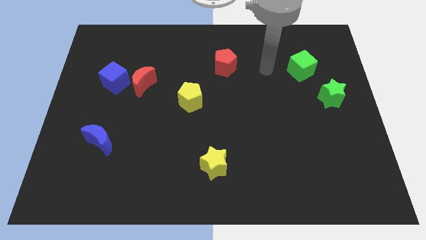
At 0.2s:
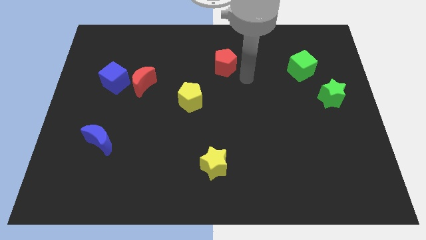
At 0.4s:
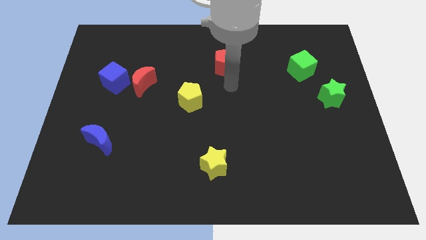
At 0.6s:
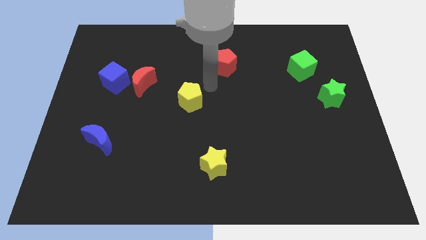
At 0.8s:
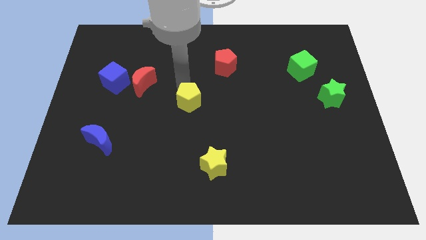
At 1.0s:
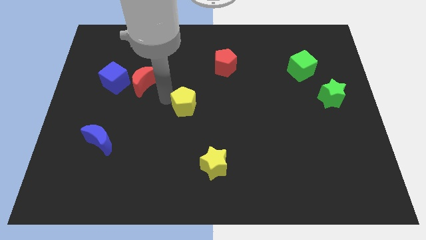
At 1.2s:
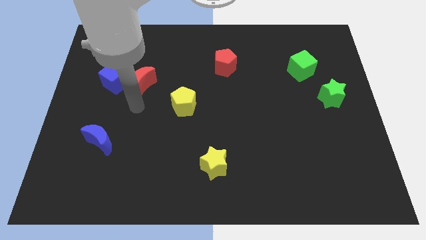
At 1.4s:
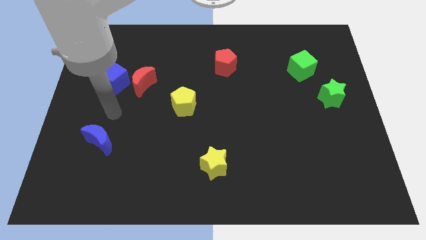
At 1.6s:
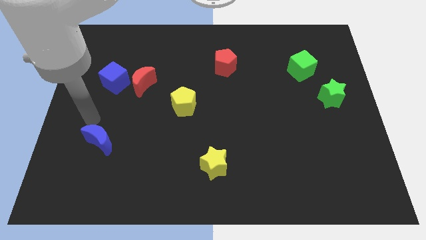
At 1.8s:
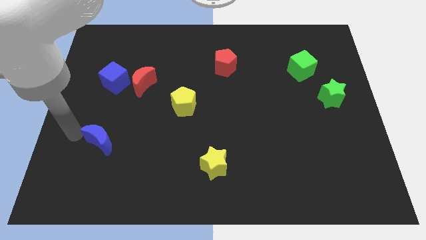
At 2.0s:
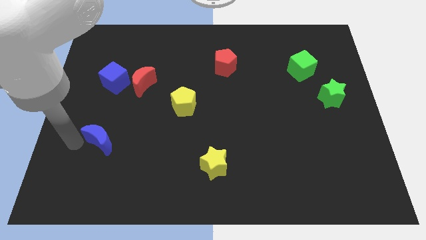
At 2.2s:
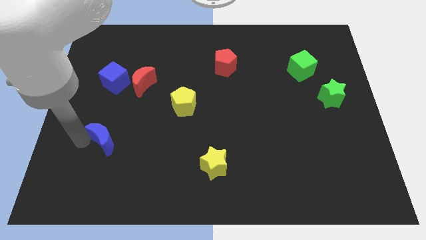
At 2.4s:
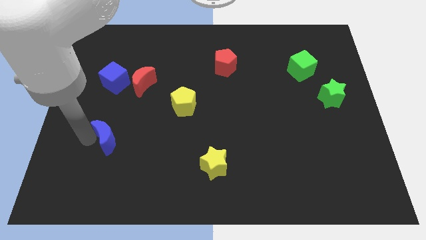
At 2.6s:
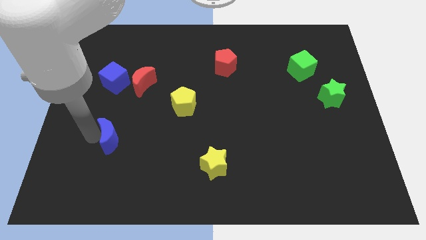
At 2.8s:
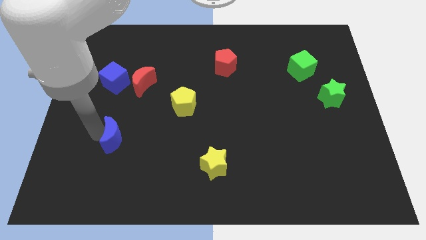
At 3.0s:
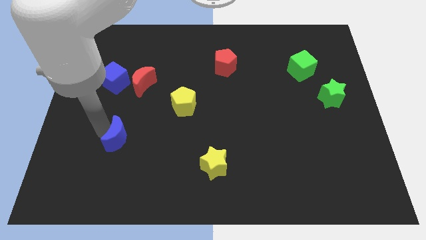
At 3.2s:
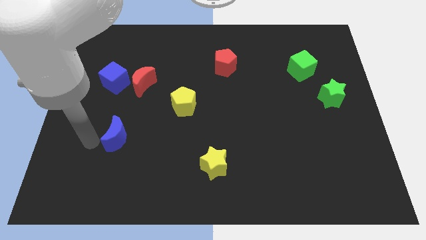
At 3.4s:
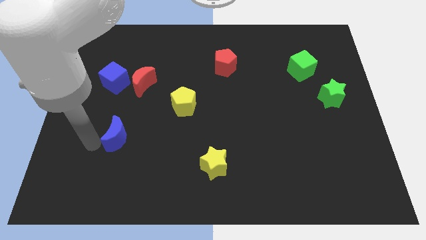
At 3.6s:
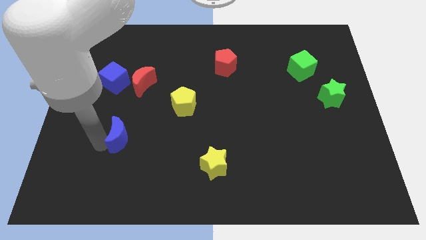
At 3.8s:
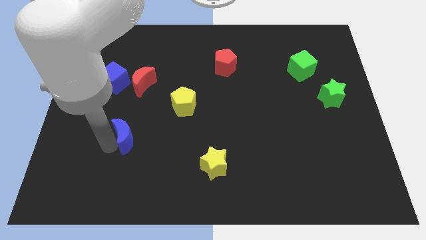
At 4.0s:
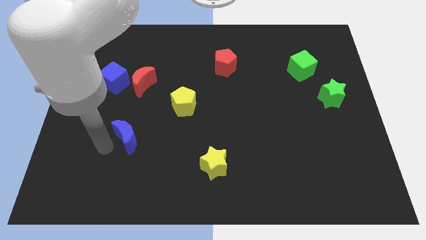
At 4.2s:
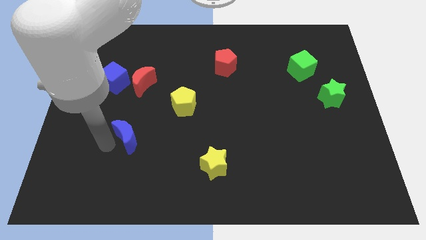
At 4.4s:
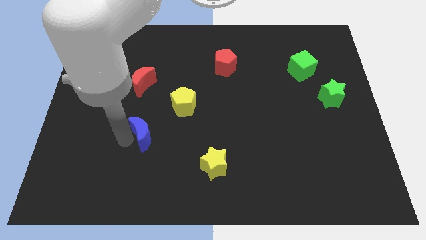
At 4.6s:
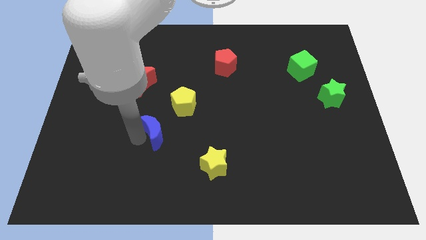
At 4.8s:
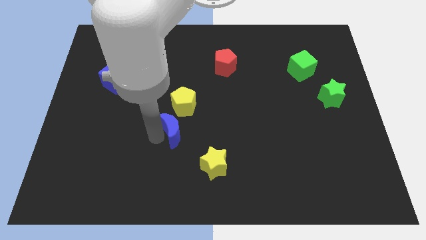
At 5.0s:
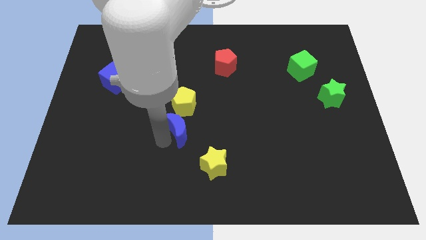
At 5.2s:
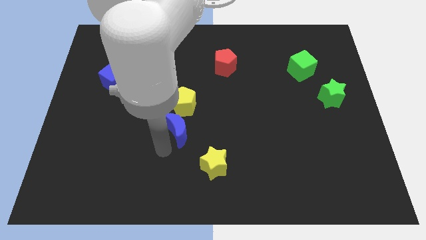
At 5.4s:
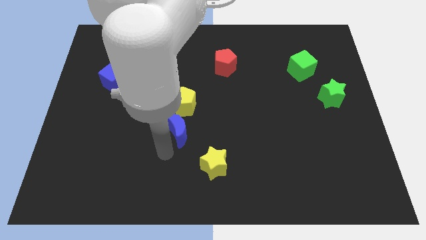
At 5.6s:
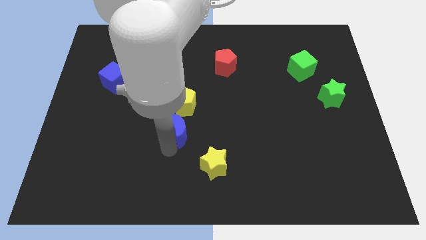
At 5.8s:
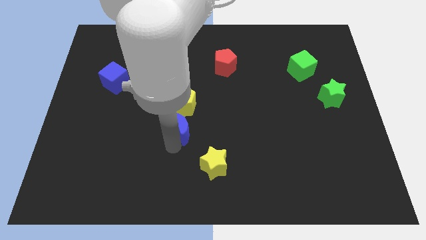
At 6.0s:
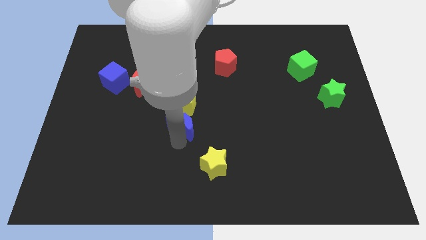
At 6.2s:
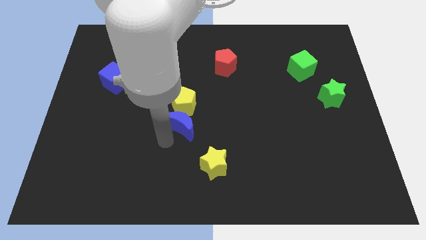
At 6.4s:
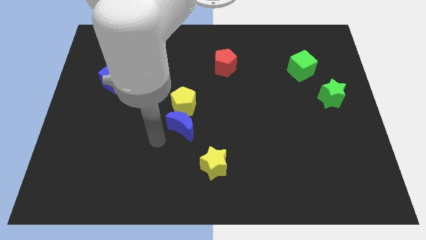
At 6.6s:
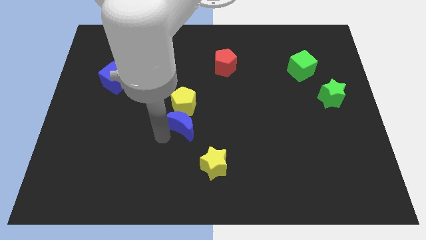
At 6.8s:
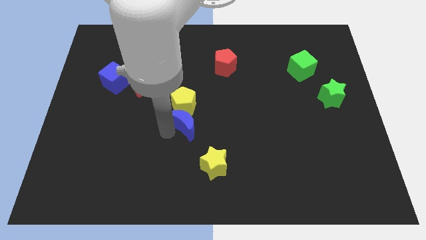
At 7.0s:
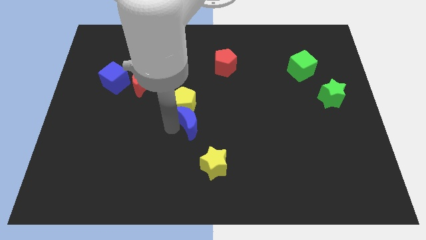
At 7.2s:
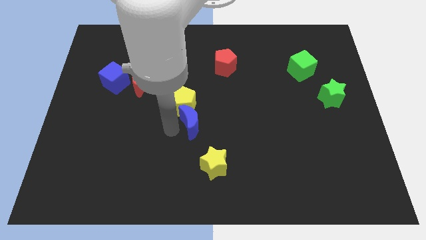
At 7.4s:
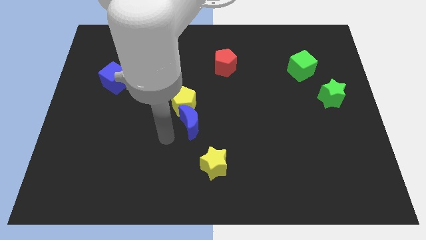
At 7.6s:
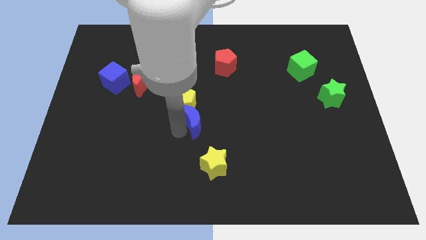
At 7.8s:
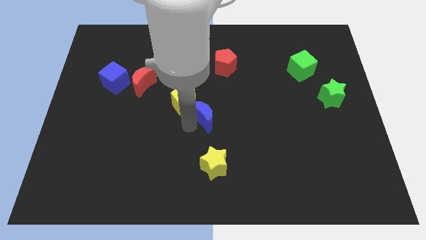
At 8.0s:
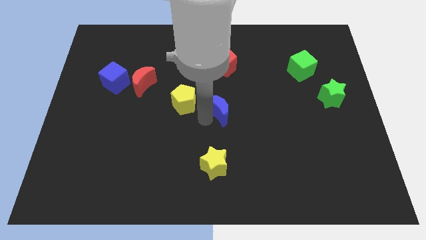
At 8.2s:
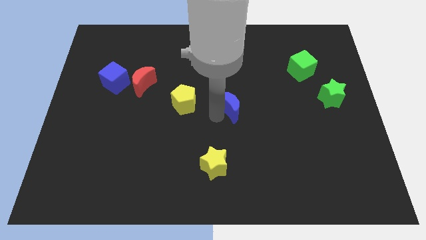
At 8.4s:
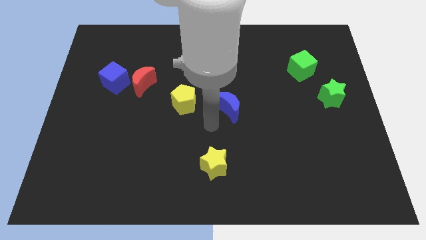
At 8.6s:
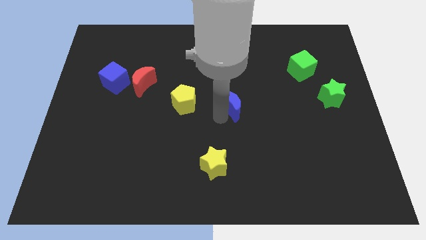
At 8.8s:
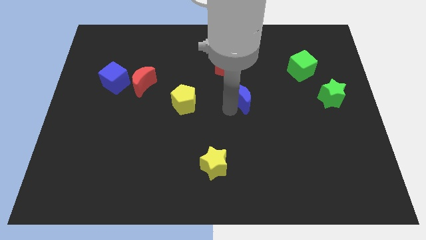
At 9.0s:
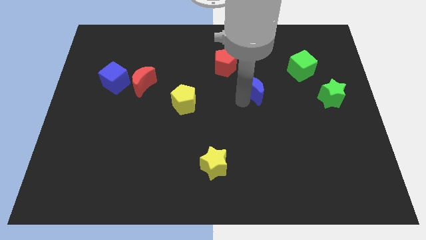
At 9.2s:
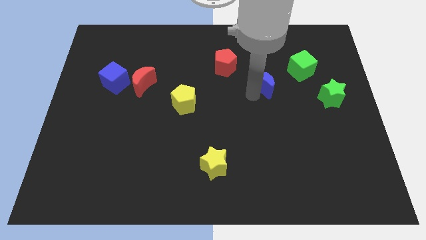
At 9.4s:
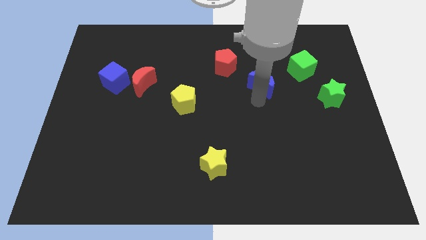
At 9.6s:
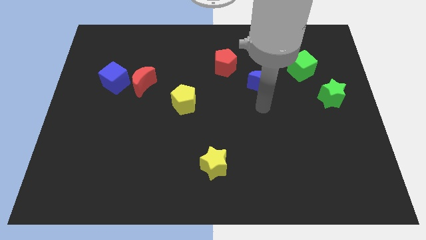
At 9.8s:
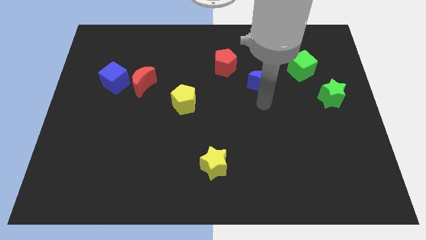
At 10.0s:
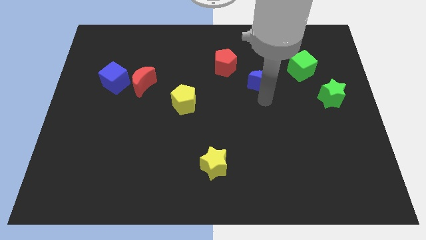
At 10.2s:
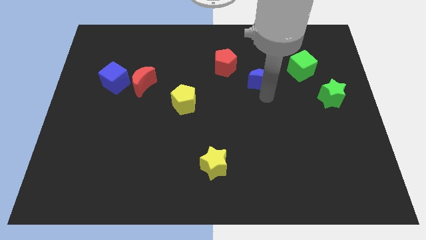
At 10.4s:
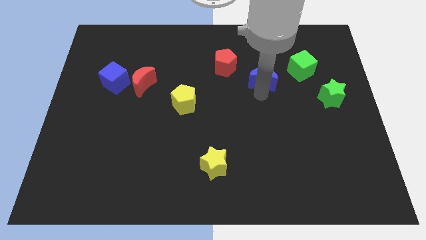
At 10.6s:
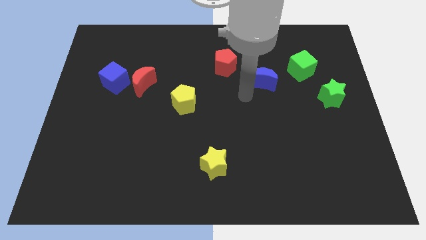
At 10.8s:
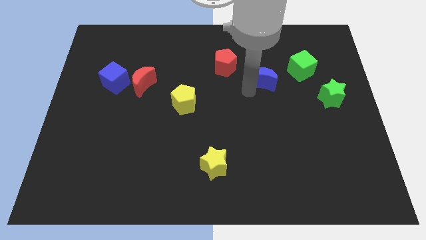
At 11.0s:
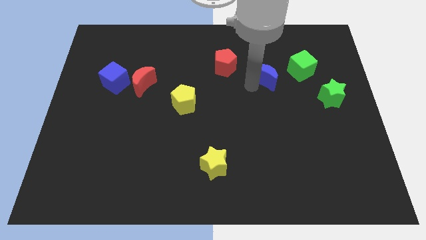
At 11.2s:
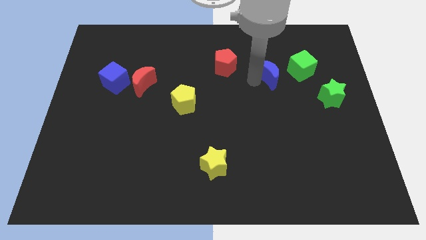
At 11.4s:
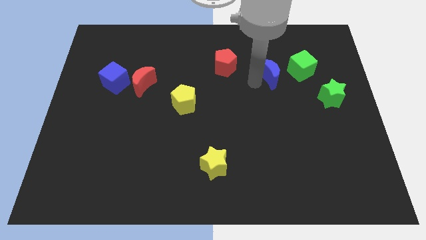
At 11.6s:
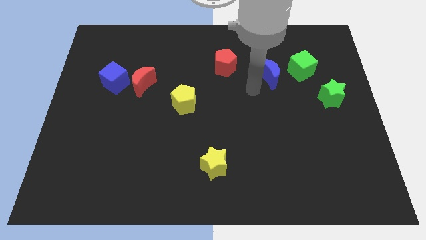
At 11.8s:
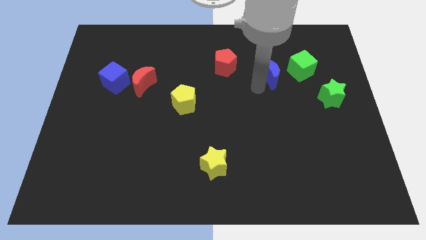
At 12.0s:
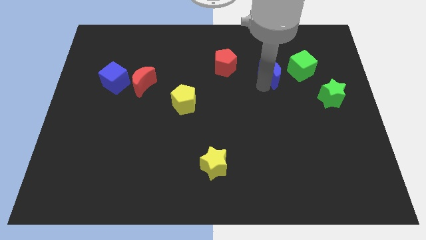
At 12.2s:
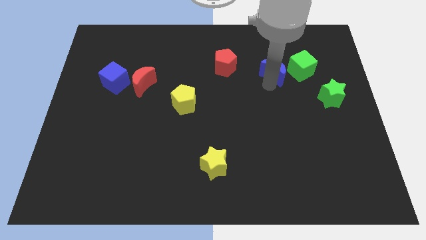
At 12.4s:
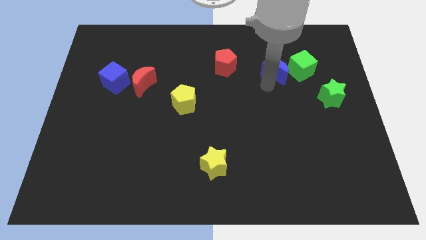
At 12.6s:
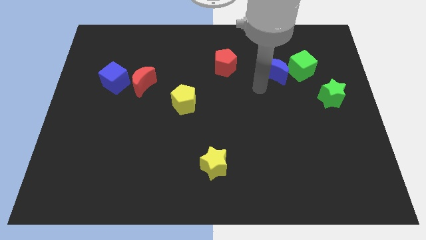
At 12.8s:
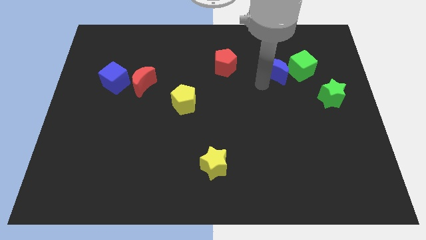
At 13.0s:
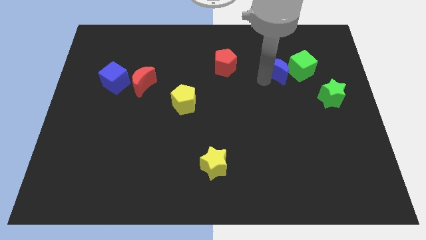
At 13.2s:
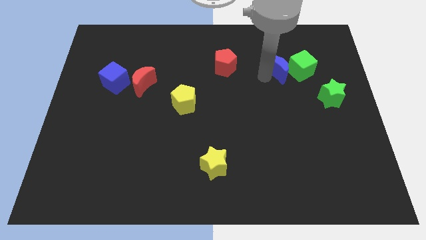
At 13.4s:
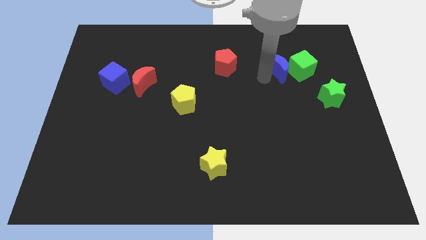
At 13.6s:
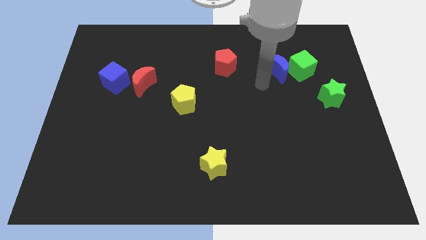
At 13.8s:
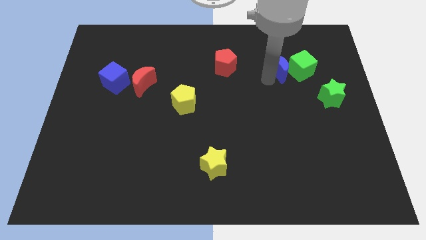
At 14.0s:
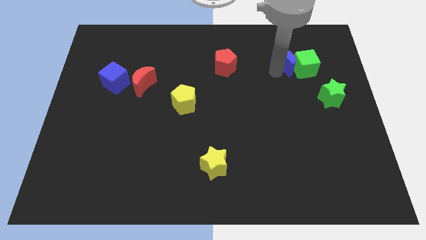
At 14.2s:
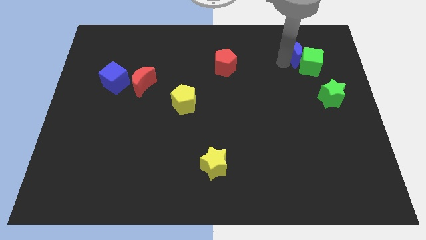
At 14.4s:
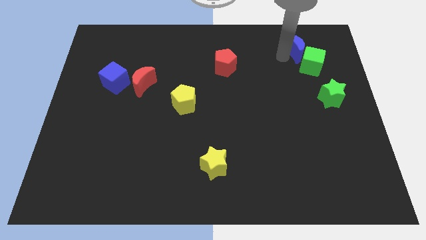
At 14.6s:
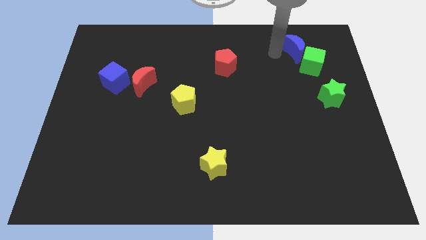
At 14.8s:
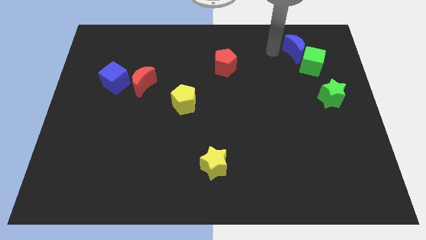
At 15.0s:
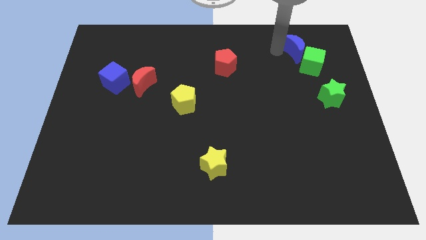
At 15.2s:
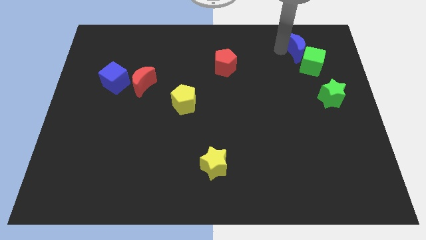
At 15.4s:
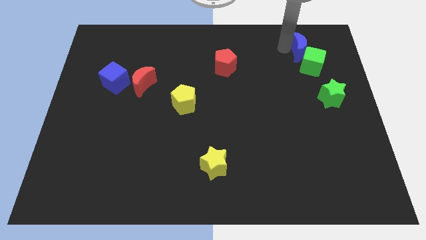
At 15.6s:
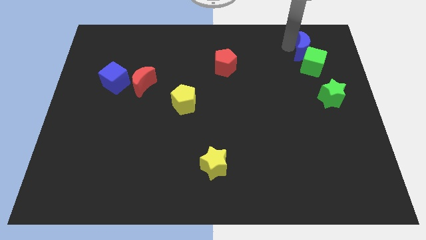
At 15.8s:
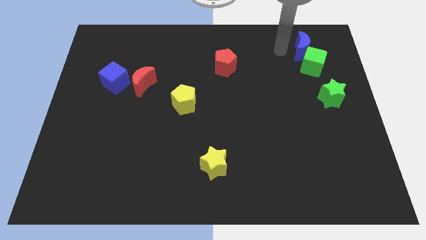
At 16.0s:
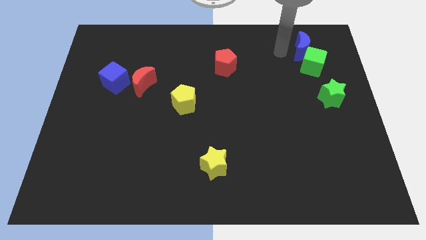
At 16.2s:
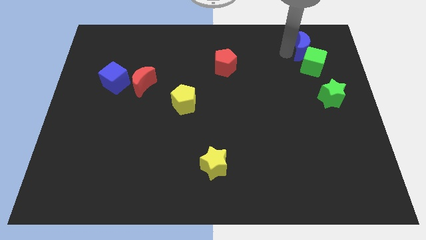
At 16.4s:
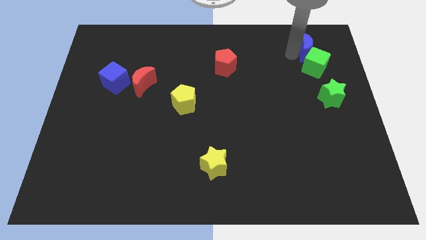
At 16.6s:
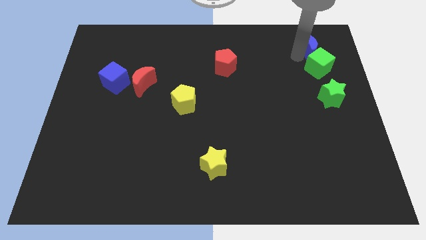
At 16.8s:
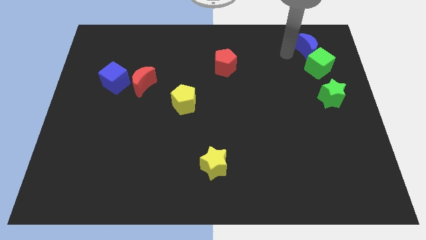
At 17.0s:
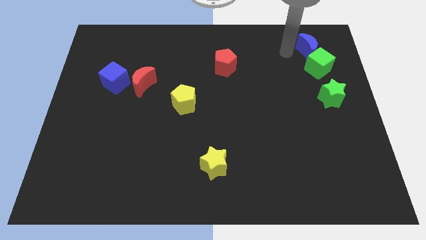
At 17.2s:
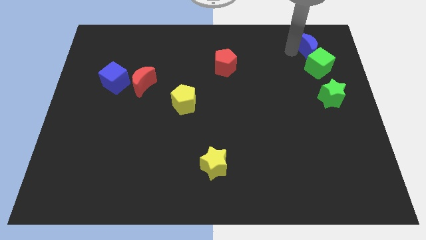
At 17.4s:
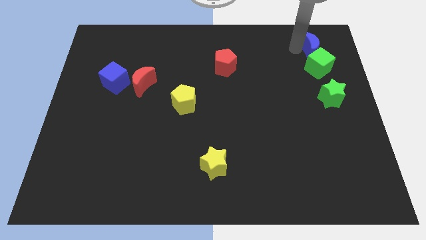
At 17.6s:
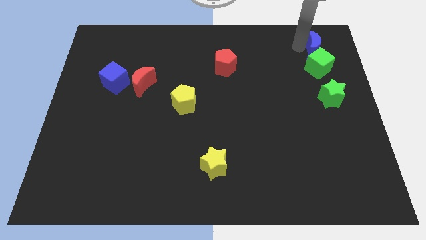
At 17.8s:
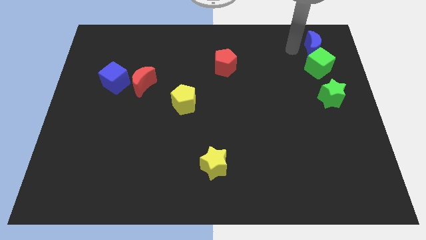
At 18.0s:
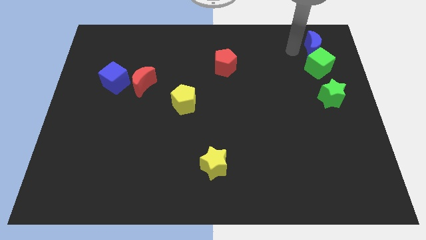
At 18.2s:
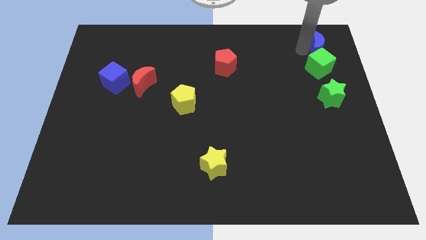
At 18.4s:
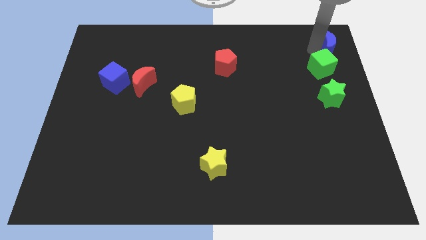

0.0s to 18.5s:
push the blue moon to the top right
